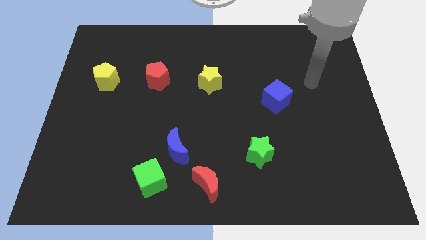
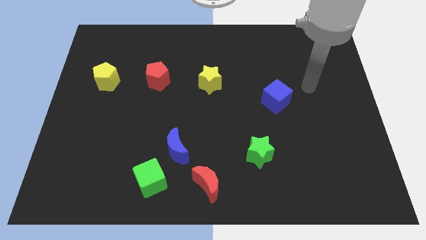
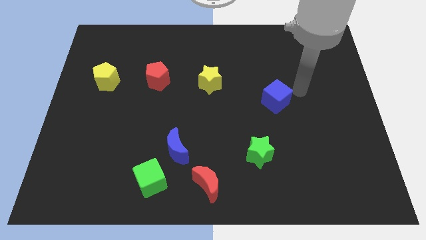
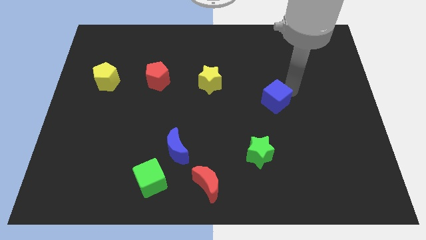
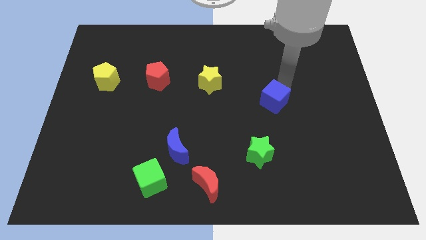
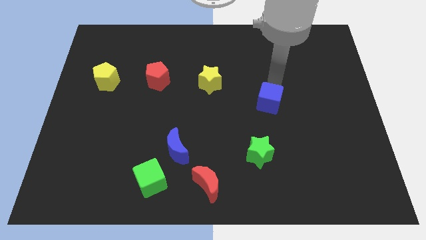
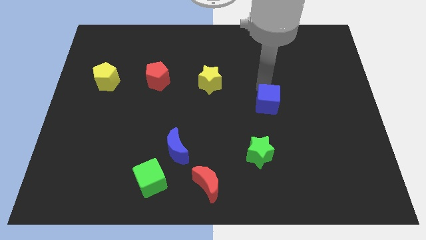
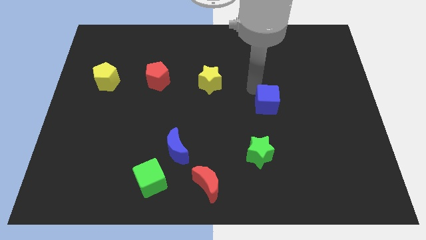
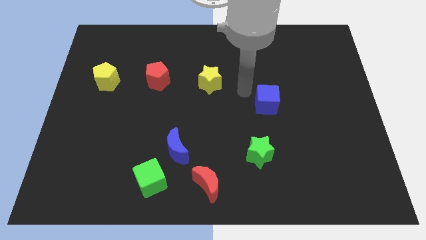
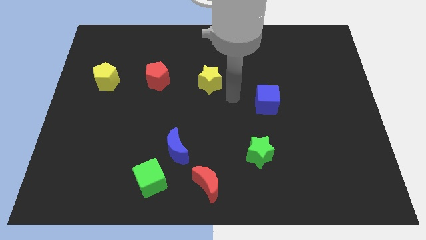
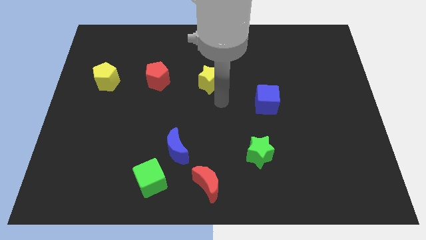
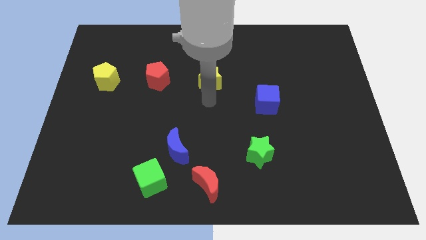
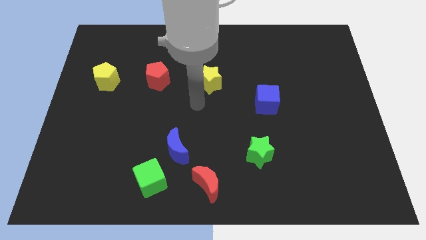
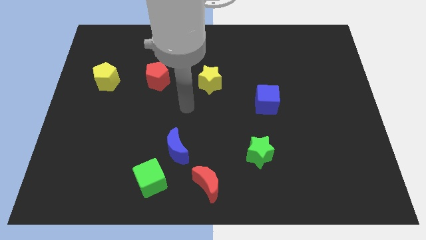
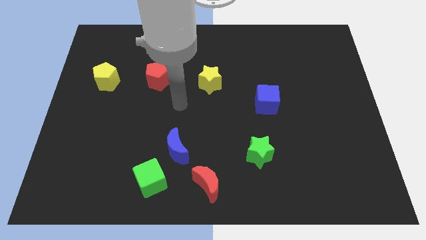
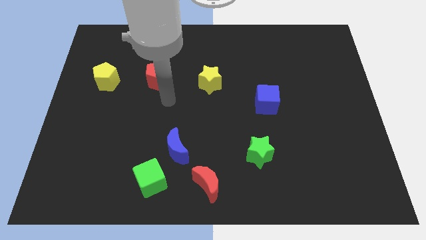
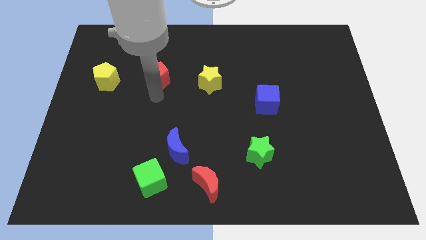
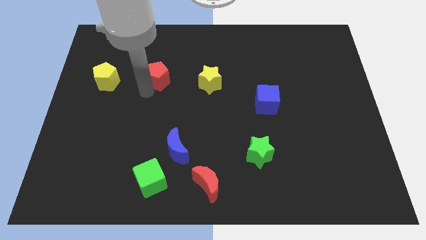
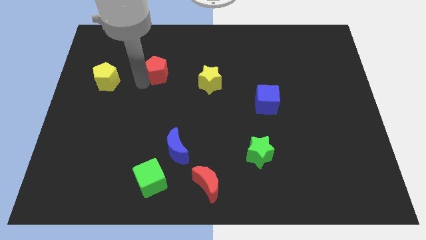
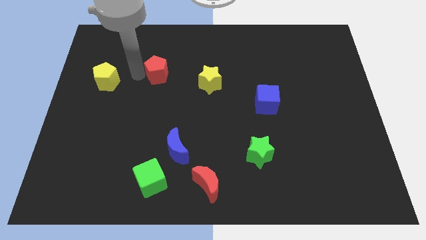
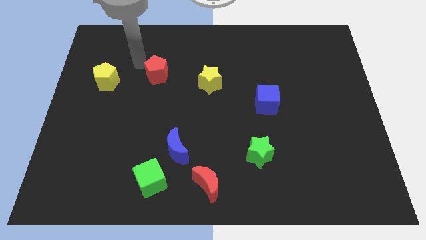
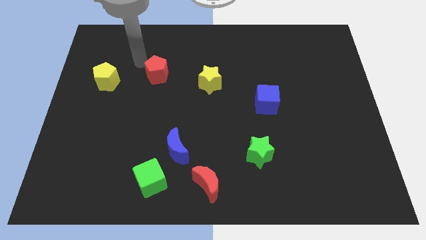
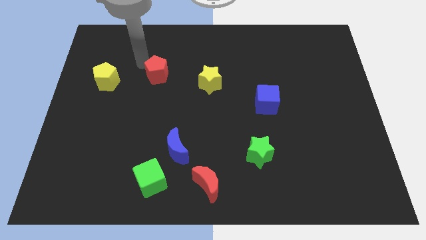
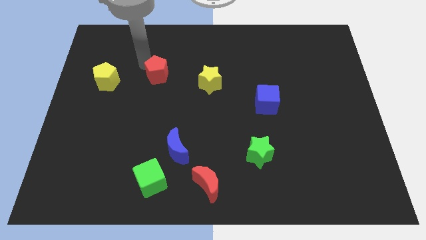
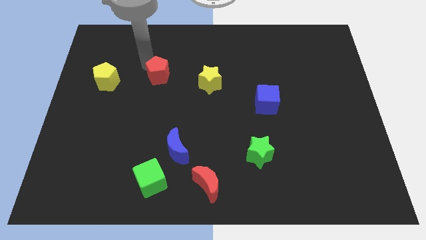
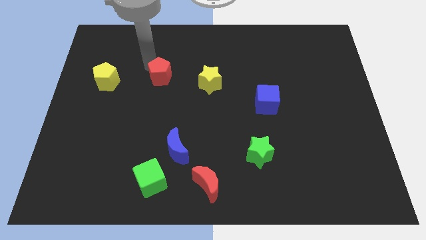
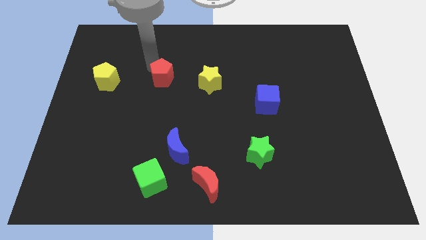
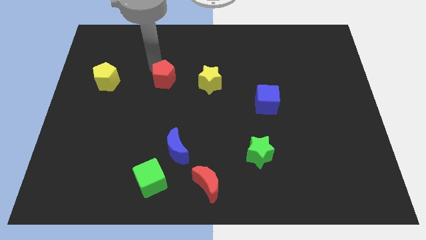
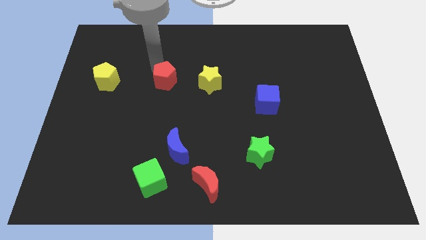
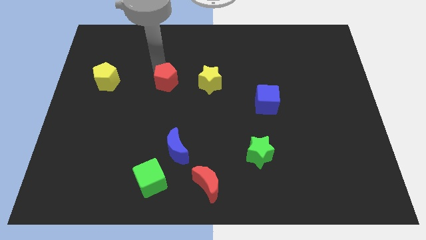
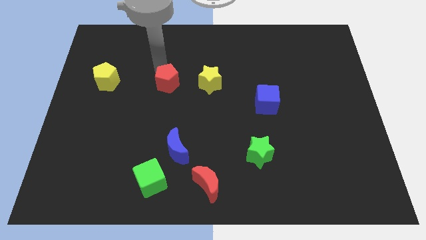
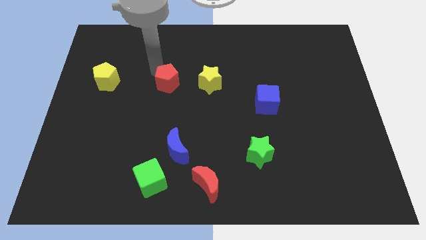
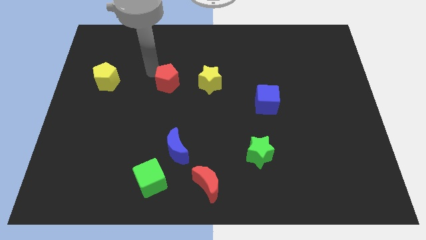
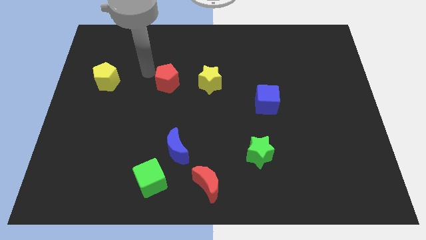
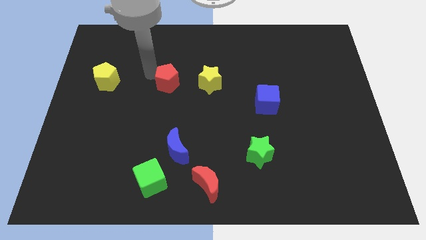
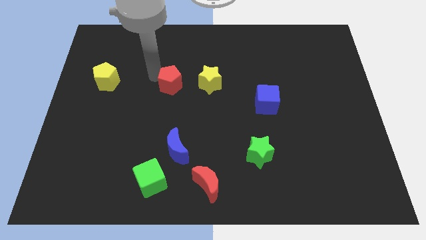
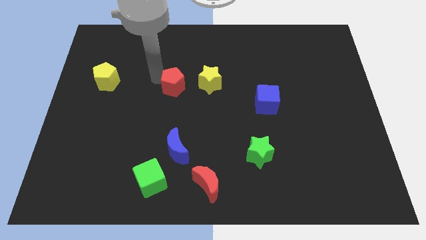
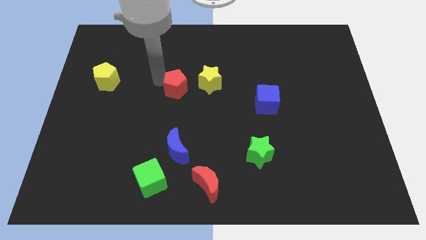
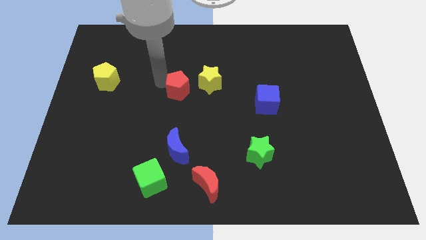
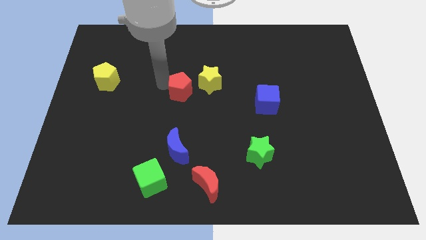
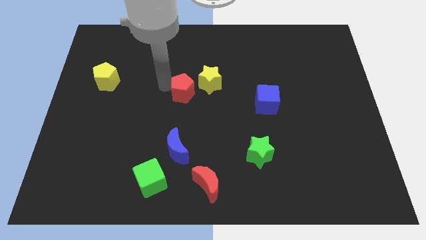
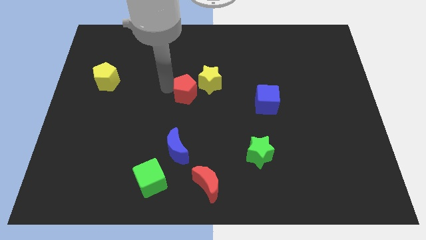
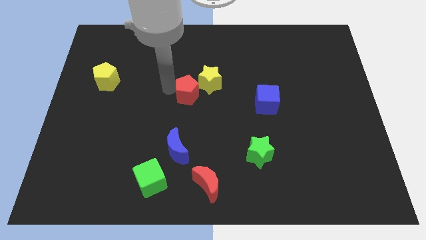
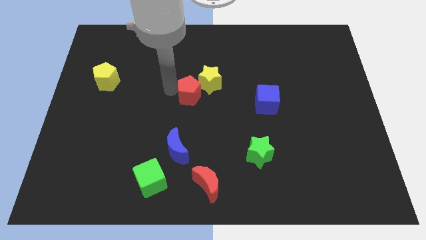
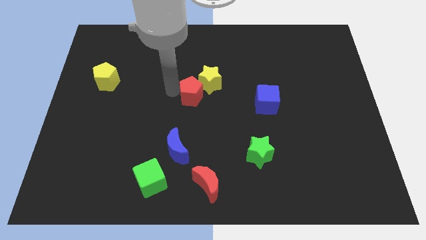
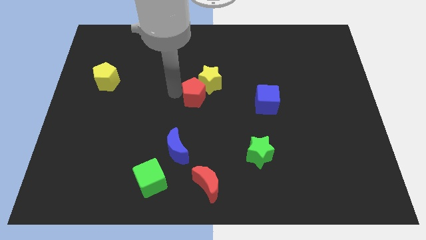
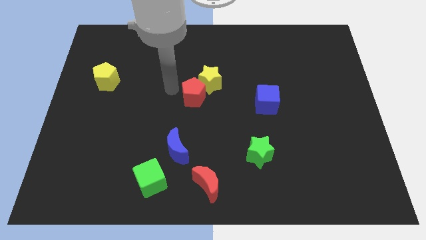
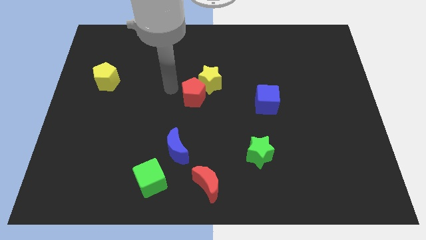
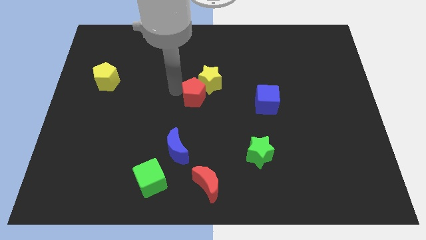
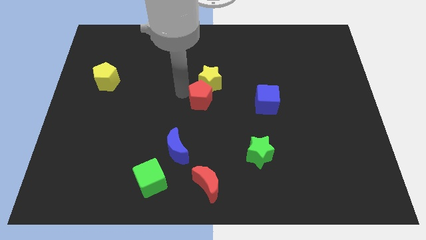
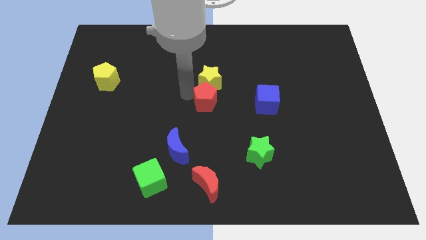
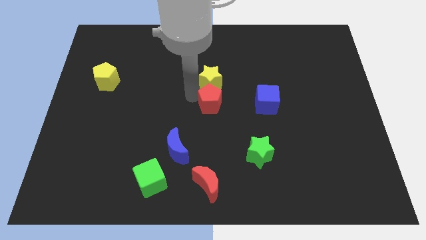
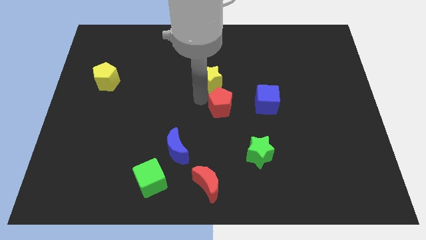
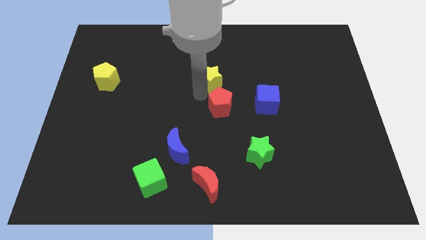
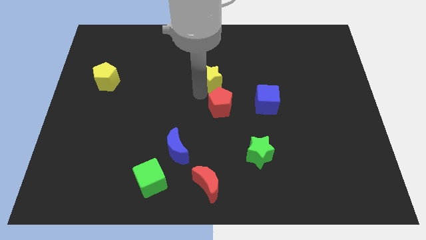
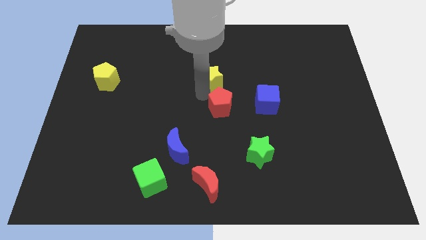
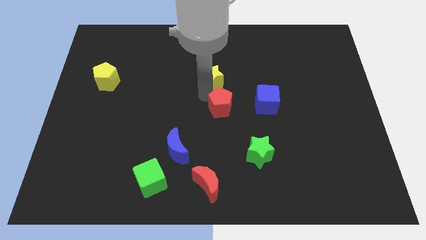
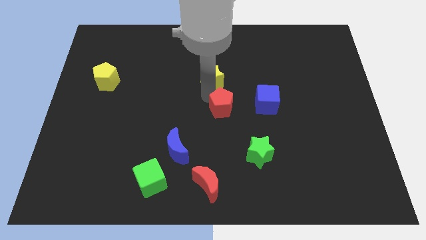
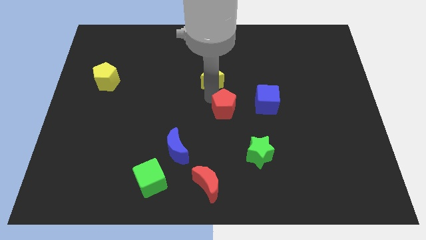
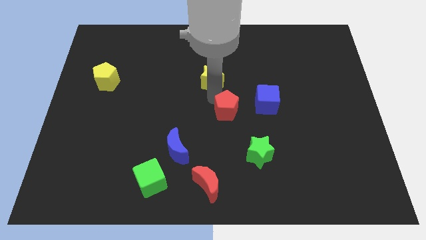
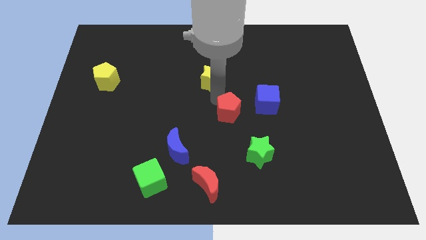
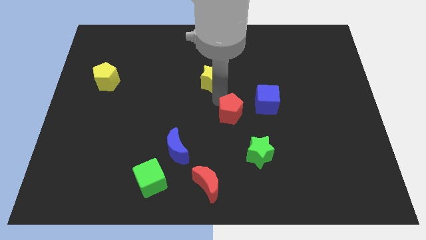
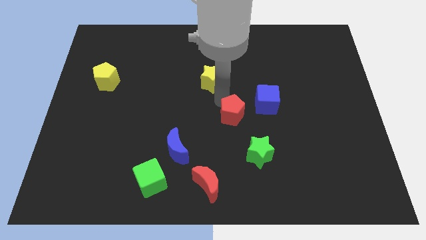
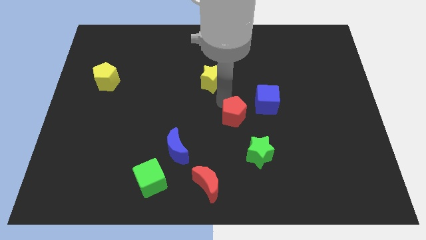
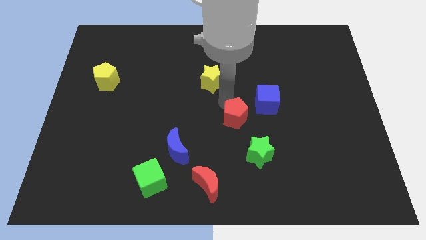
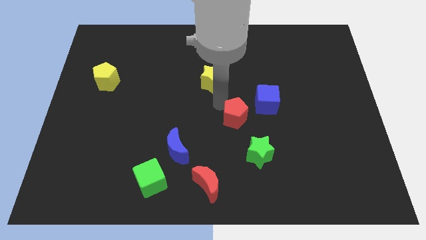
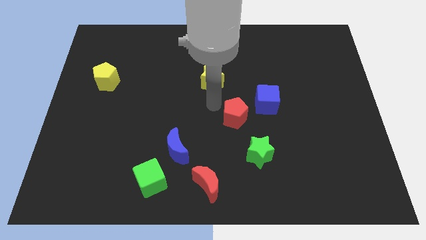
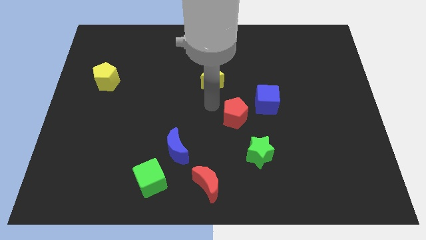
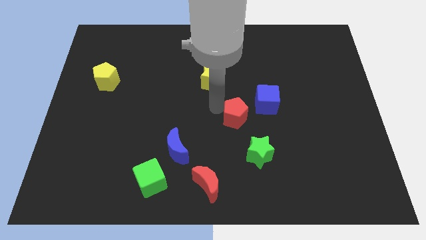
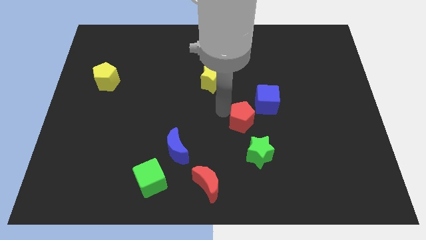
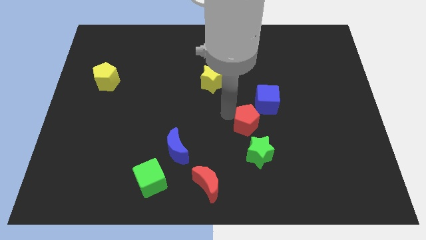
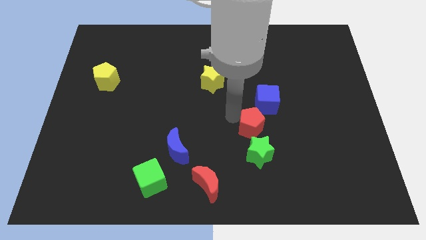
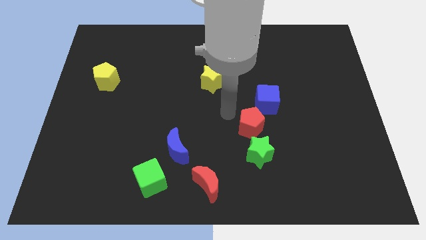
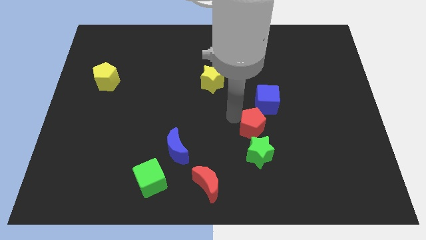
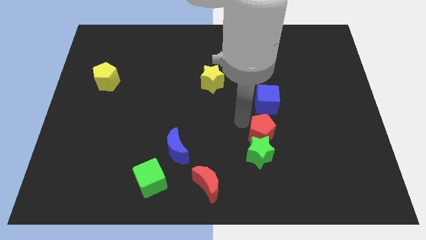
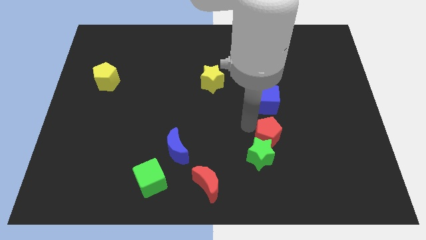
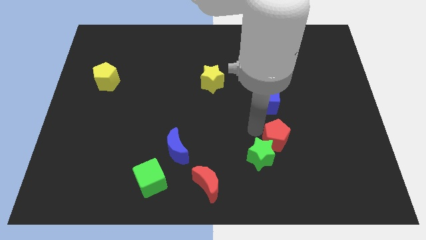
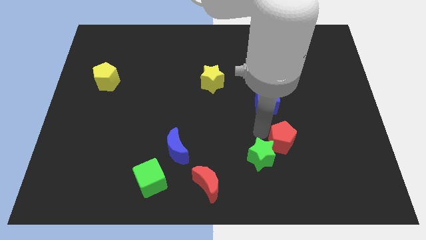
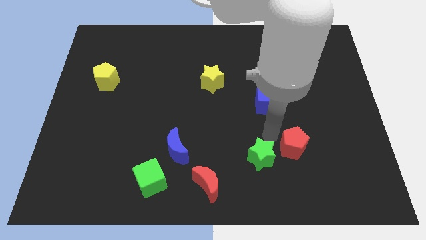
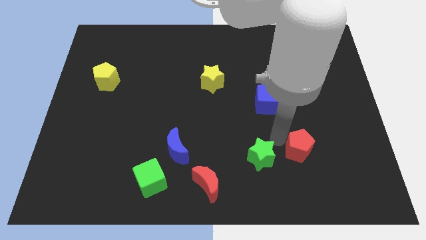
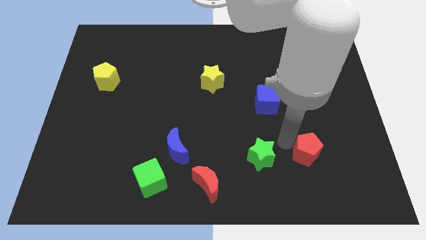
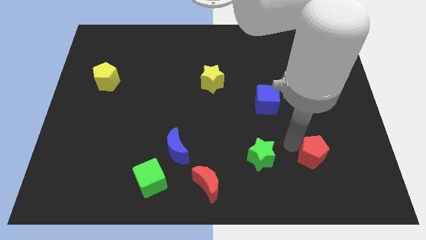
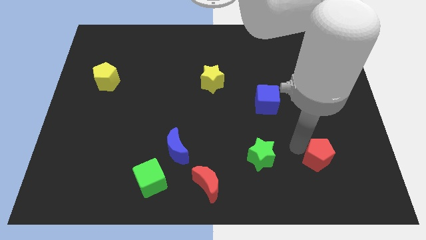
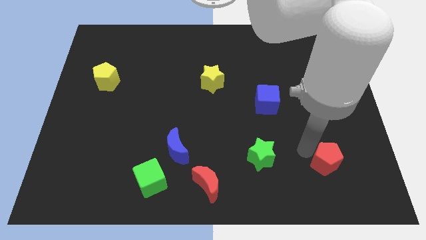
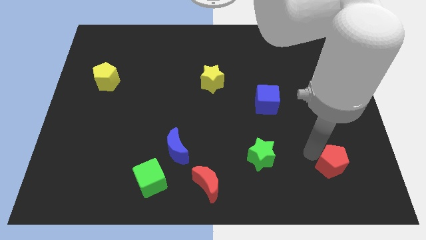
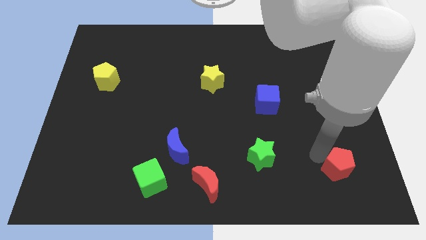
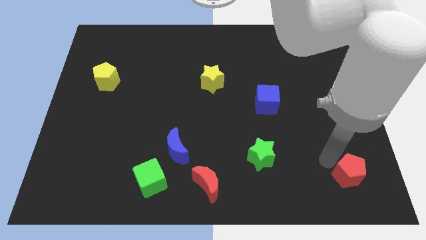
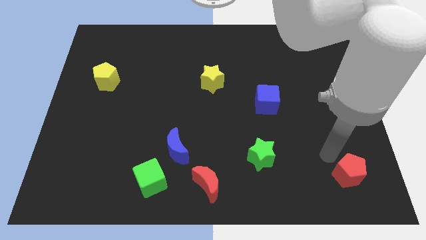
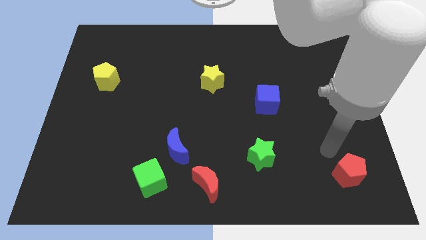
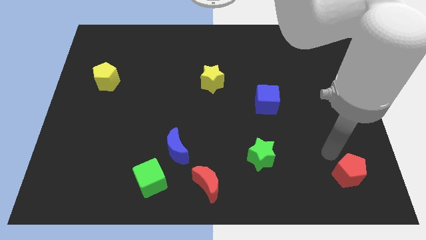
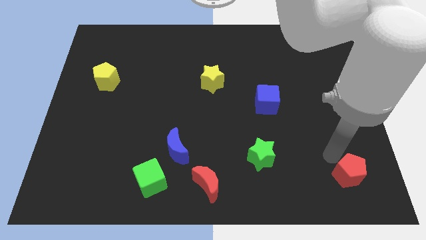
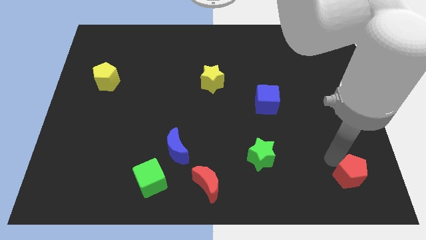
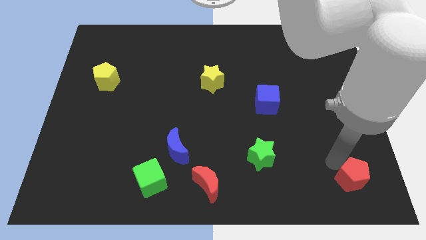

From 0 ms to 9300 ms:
push the red pentagon to the bottom right of the board
